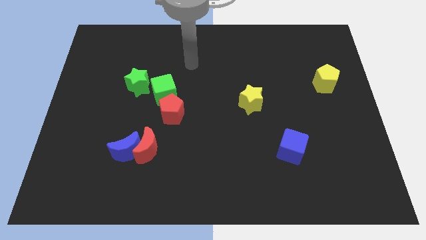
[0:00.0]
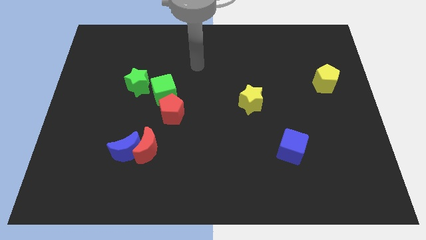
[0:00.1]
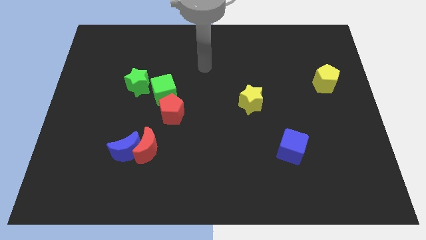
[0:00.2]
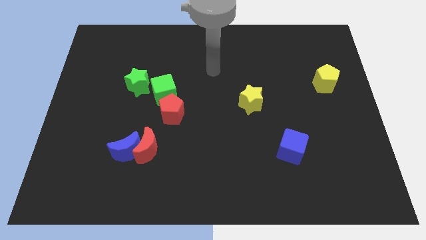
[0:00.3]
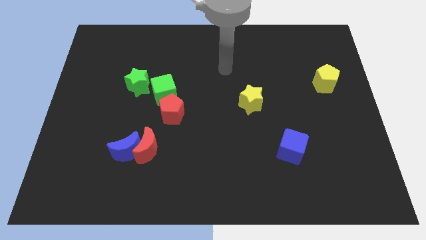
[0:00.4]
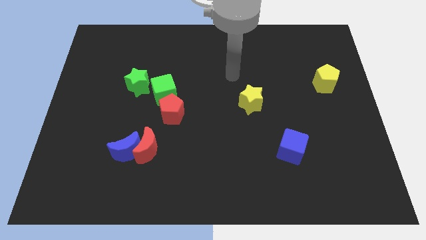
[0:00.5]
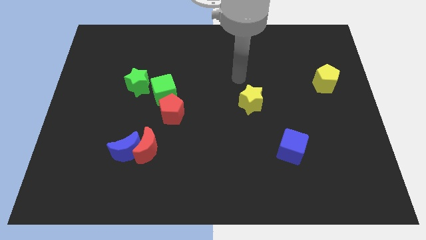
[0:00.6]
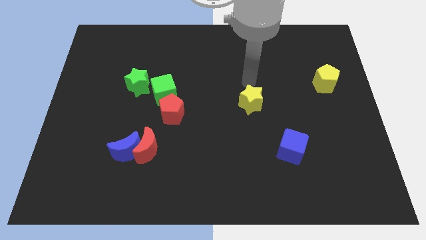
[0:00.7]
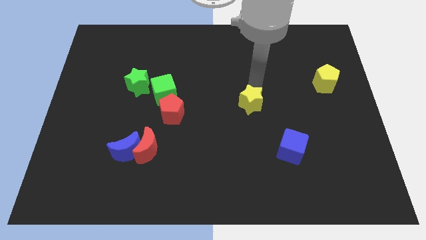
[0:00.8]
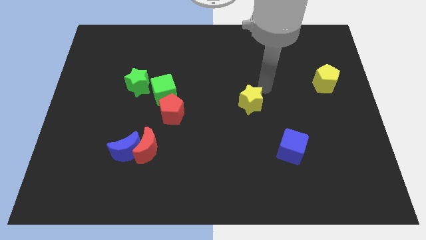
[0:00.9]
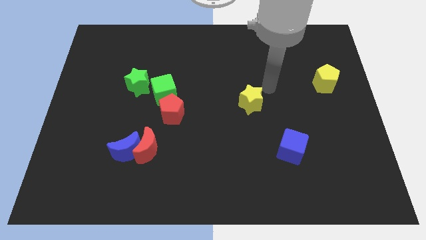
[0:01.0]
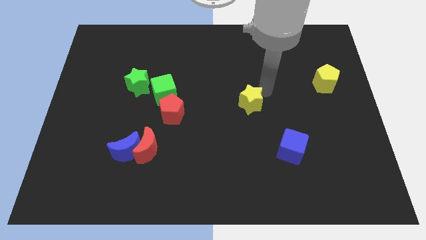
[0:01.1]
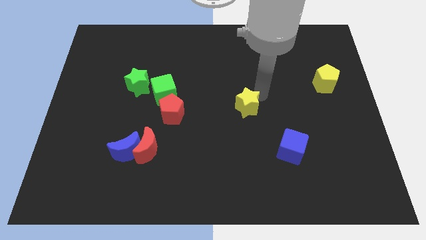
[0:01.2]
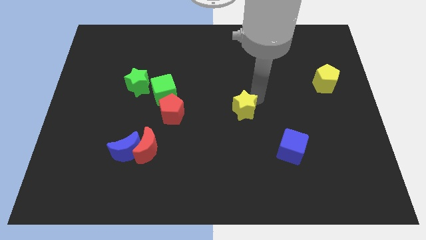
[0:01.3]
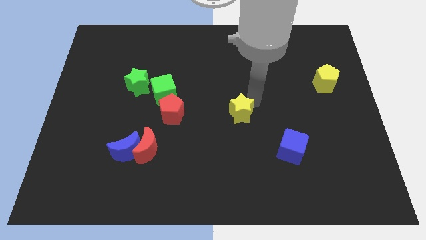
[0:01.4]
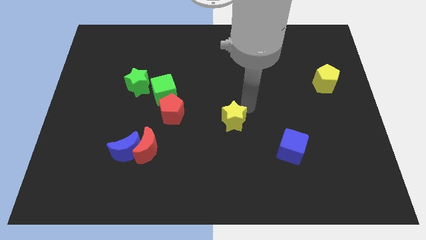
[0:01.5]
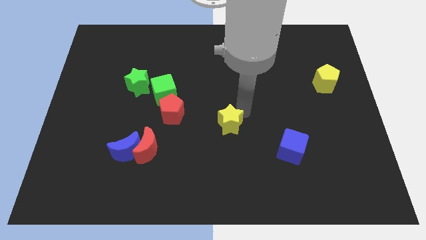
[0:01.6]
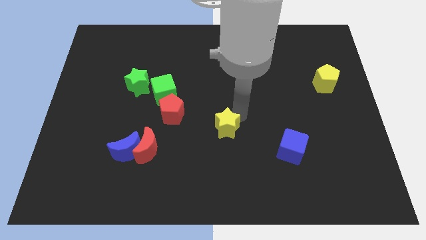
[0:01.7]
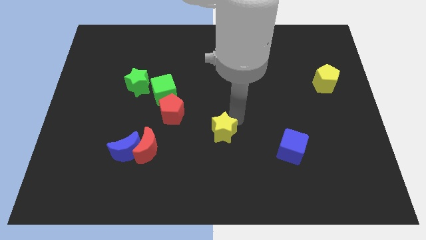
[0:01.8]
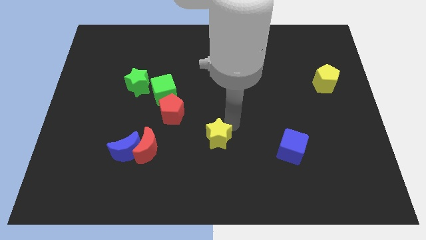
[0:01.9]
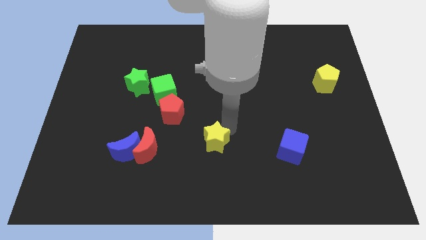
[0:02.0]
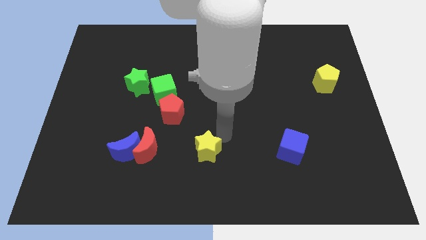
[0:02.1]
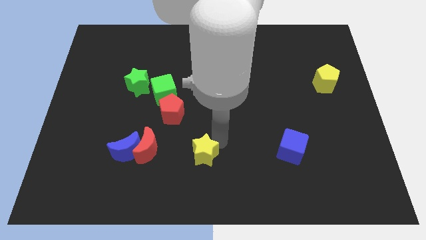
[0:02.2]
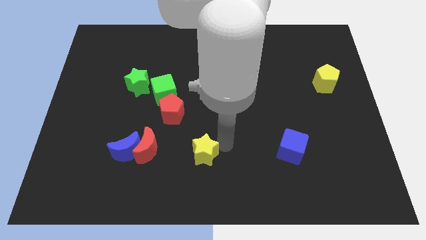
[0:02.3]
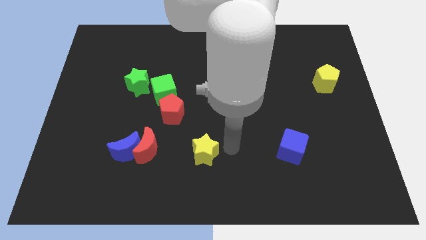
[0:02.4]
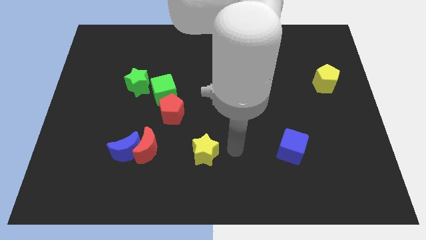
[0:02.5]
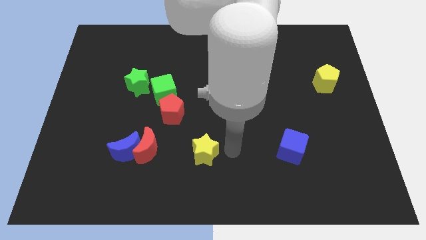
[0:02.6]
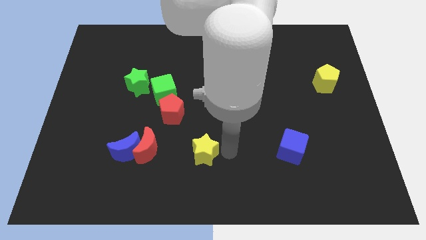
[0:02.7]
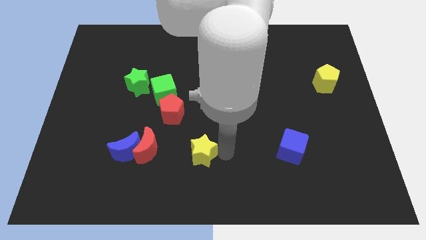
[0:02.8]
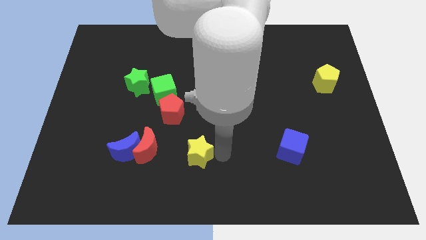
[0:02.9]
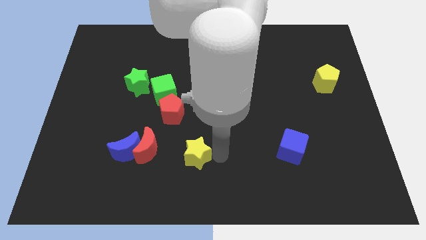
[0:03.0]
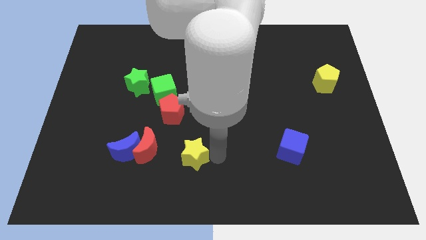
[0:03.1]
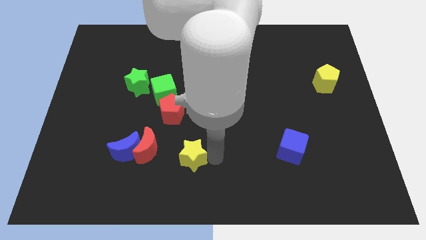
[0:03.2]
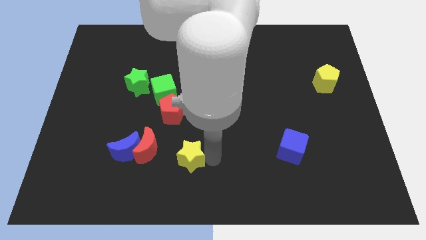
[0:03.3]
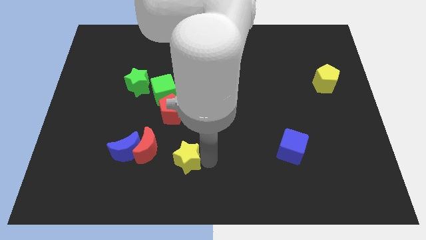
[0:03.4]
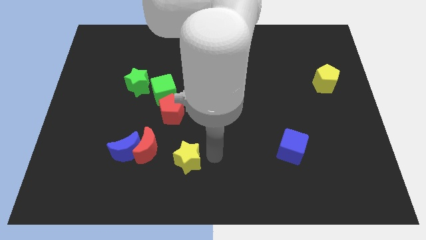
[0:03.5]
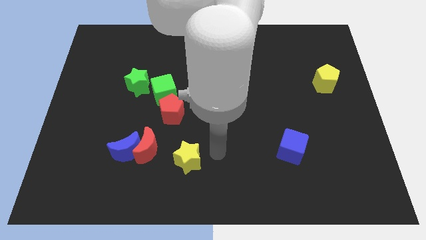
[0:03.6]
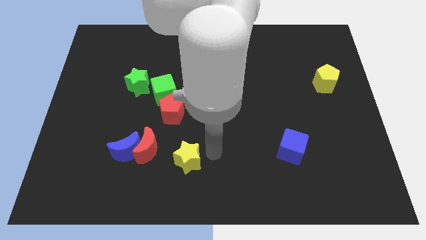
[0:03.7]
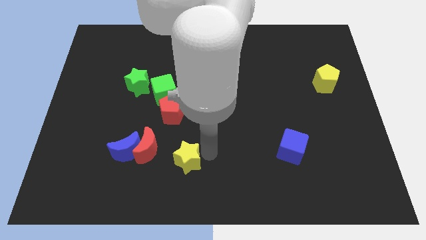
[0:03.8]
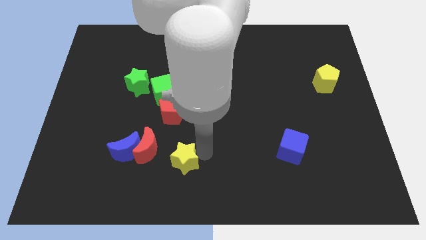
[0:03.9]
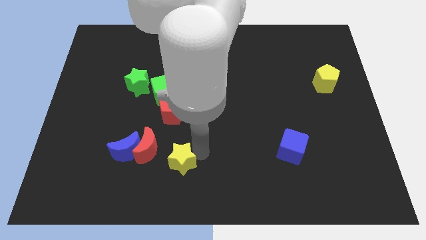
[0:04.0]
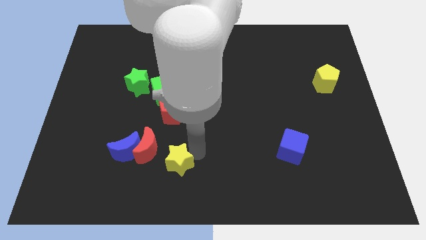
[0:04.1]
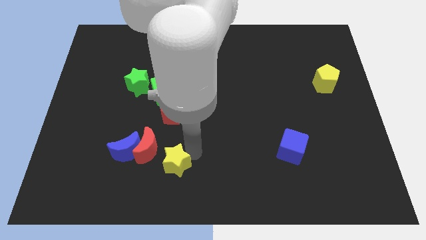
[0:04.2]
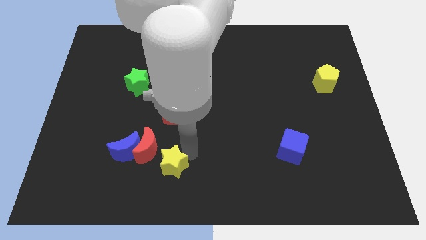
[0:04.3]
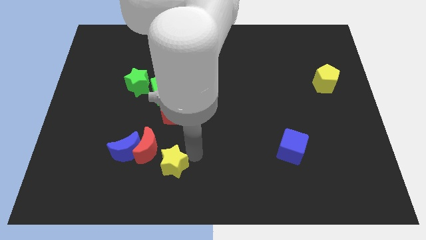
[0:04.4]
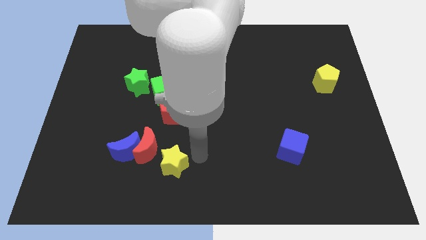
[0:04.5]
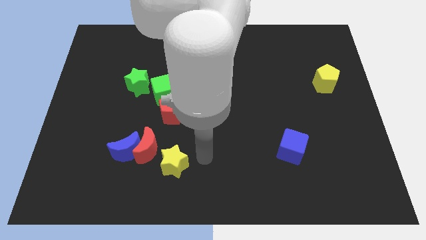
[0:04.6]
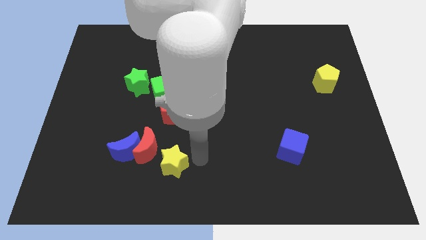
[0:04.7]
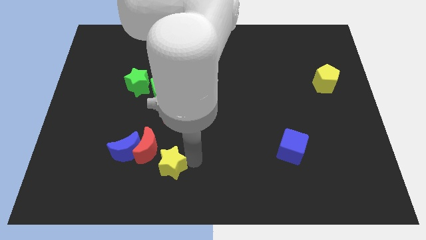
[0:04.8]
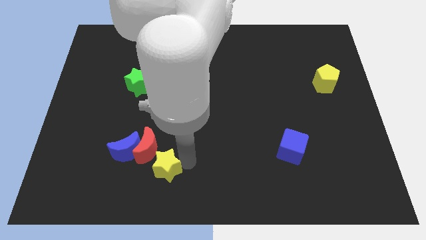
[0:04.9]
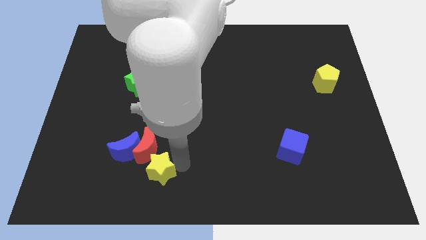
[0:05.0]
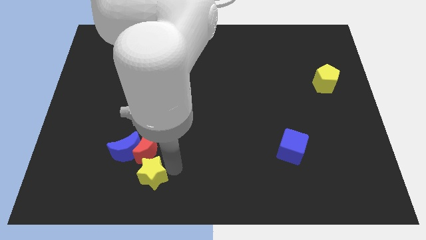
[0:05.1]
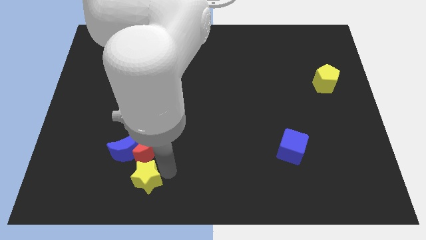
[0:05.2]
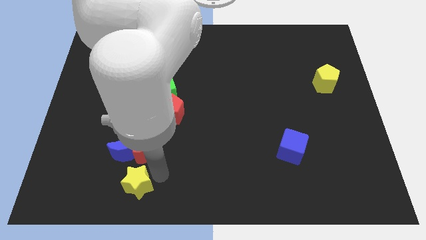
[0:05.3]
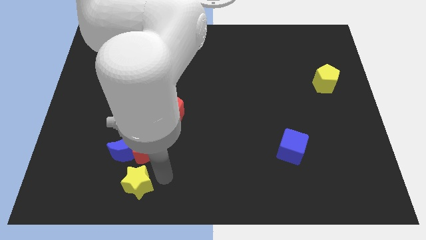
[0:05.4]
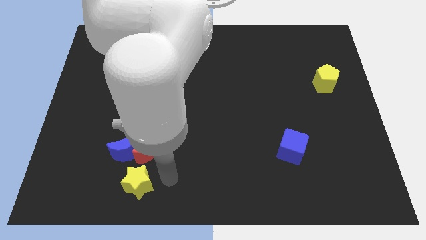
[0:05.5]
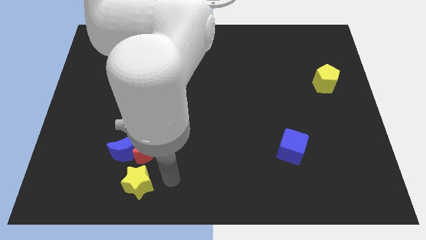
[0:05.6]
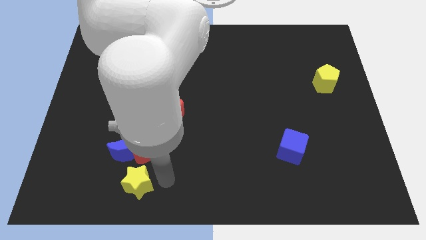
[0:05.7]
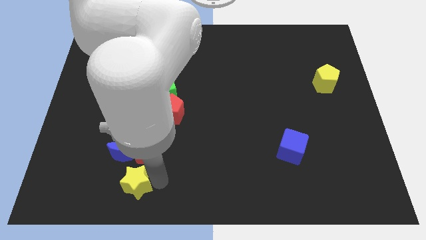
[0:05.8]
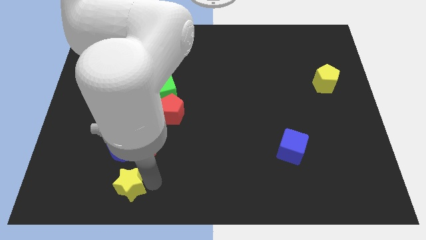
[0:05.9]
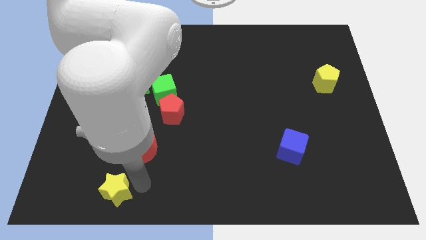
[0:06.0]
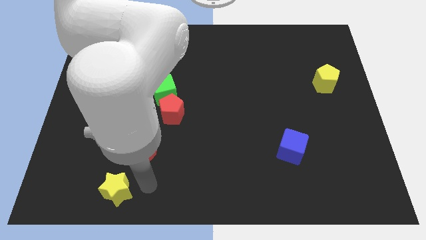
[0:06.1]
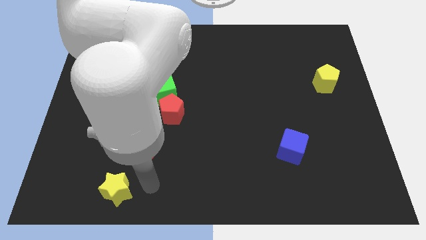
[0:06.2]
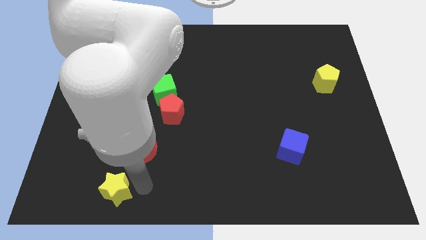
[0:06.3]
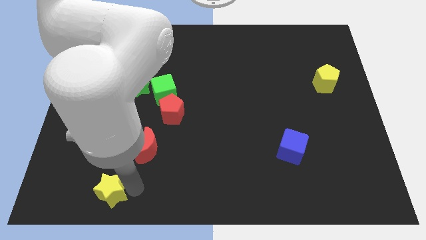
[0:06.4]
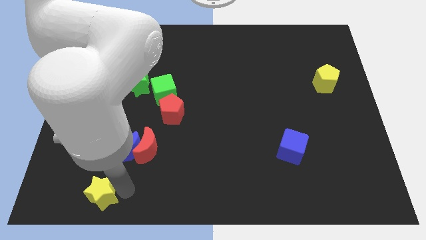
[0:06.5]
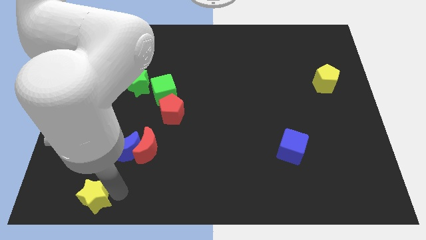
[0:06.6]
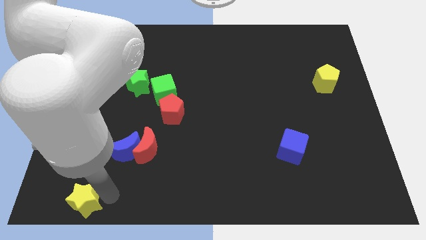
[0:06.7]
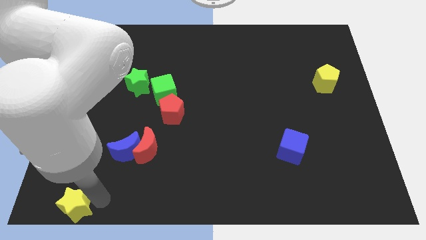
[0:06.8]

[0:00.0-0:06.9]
push the yellow star to the bottom left
